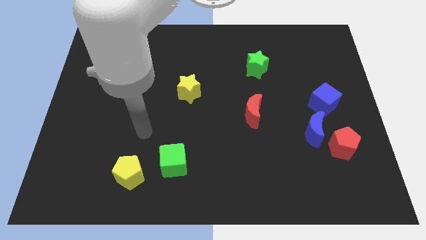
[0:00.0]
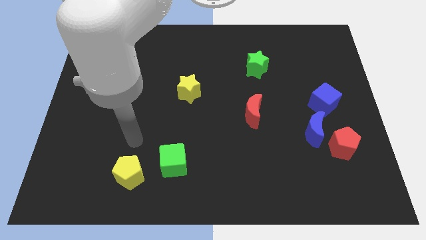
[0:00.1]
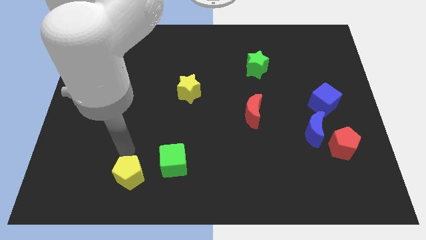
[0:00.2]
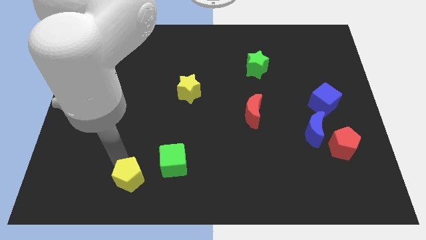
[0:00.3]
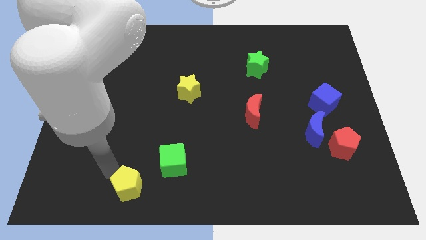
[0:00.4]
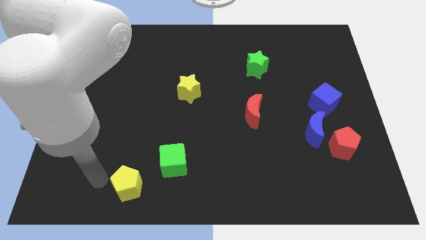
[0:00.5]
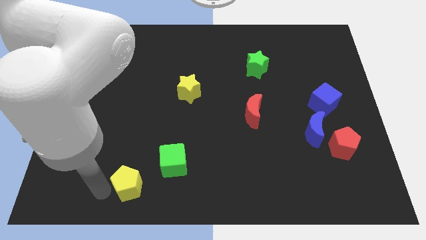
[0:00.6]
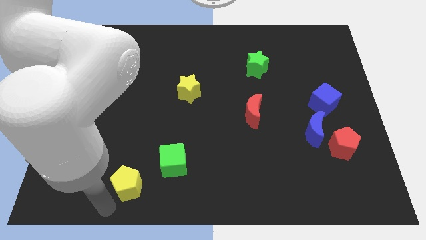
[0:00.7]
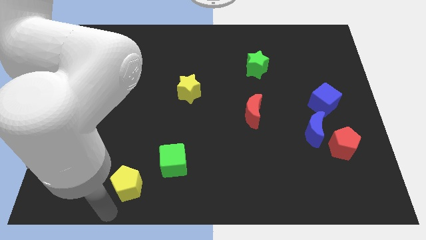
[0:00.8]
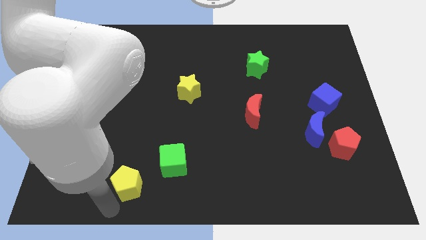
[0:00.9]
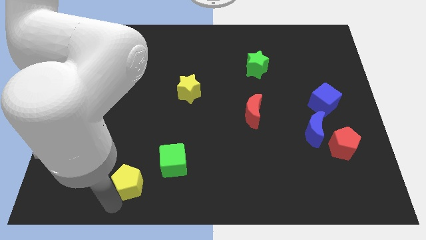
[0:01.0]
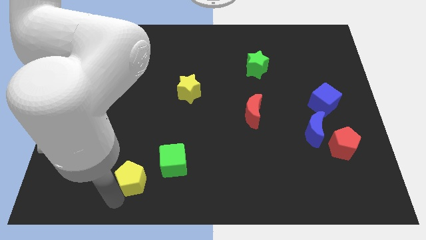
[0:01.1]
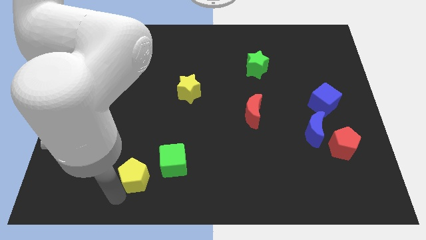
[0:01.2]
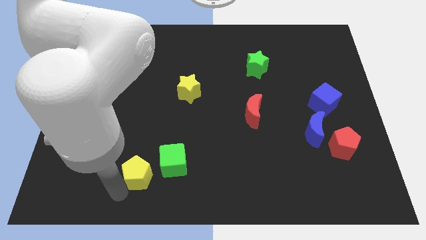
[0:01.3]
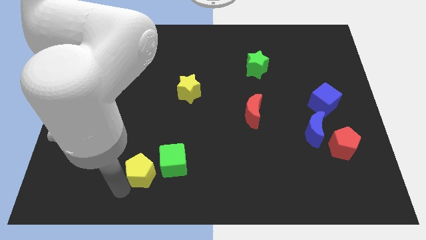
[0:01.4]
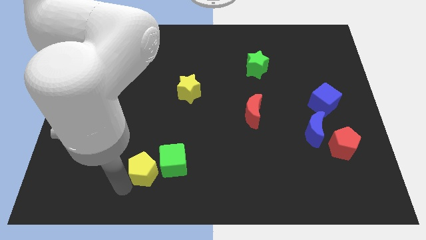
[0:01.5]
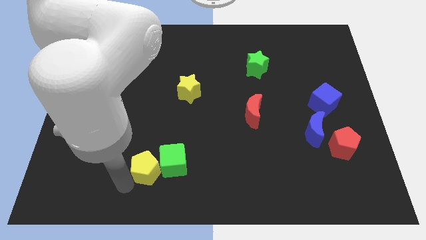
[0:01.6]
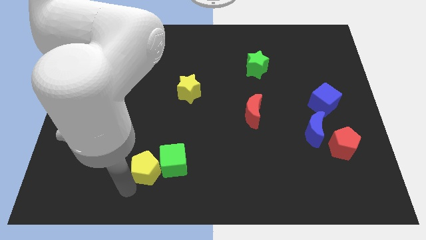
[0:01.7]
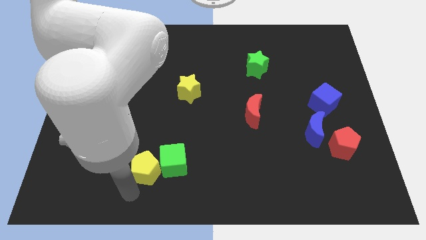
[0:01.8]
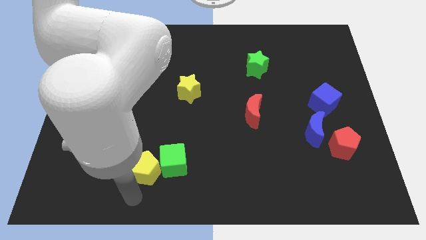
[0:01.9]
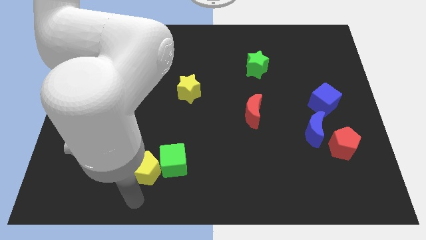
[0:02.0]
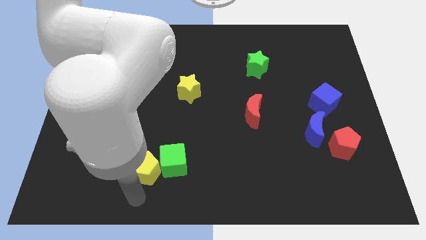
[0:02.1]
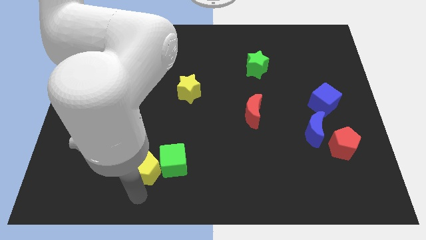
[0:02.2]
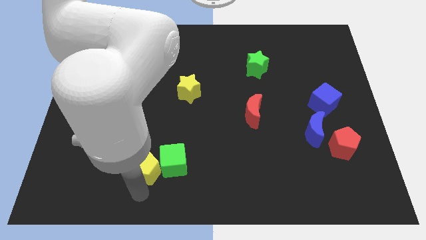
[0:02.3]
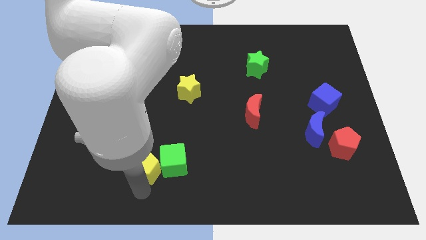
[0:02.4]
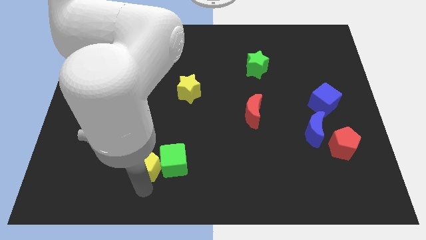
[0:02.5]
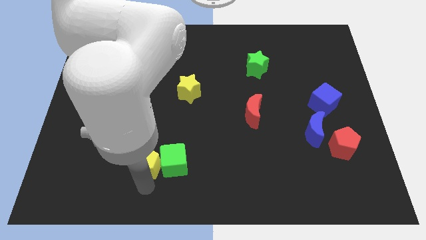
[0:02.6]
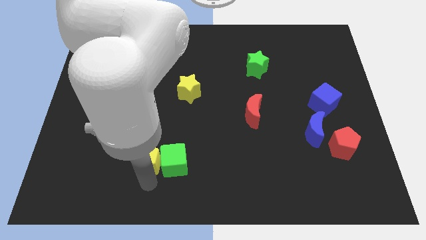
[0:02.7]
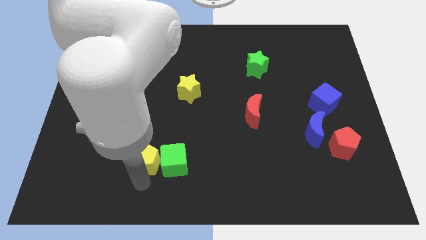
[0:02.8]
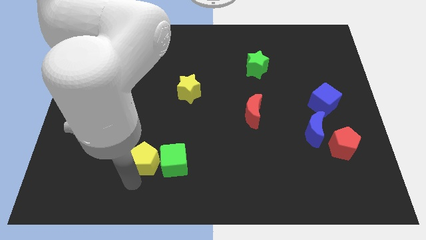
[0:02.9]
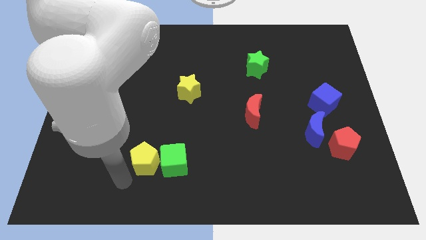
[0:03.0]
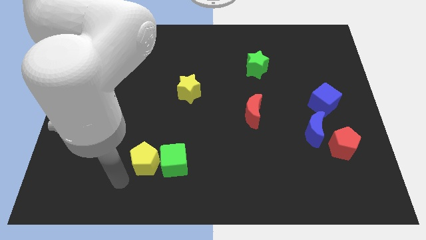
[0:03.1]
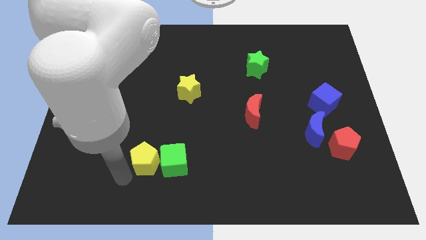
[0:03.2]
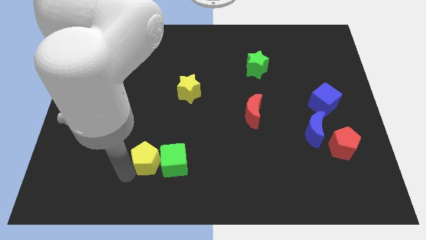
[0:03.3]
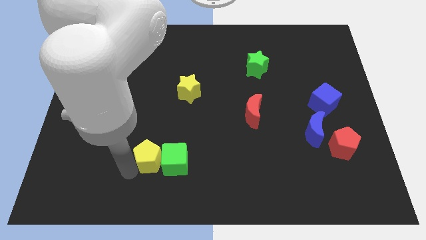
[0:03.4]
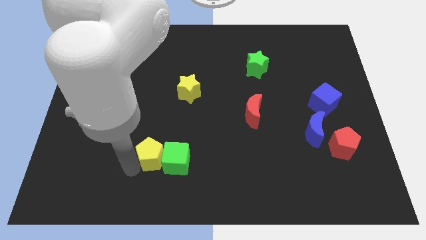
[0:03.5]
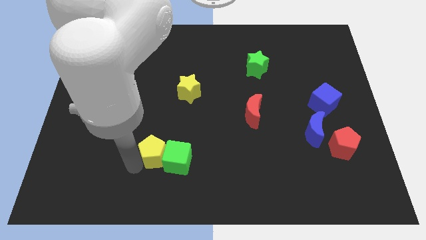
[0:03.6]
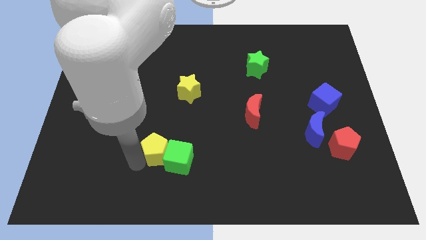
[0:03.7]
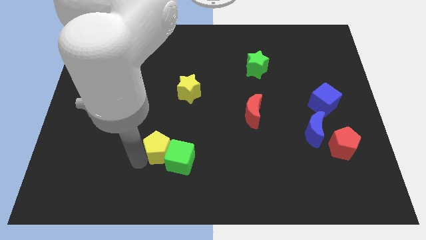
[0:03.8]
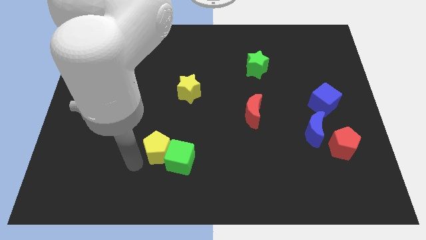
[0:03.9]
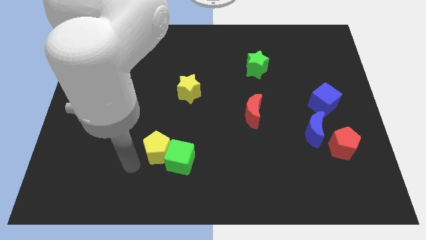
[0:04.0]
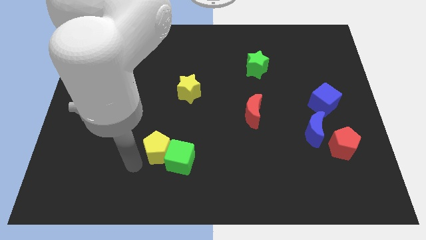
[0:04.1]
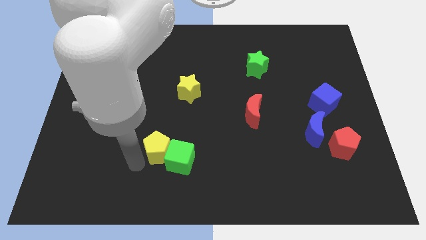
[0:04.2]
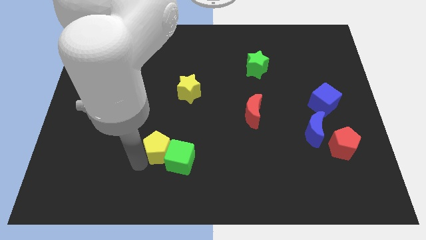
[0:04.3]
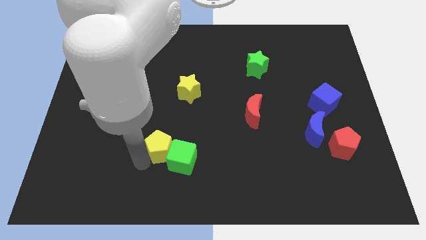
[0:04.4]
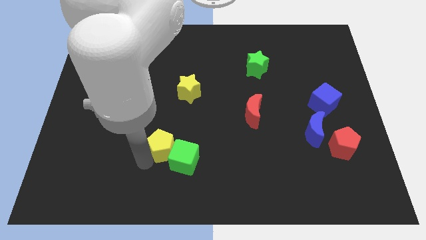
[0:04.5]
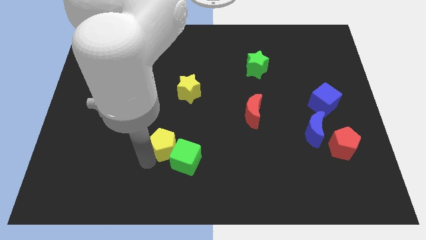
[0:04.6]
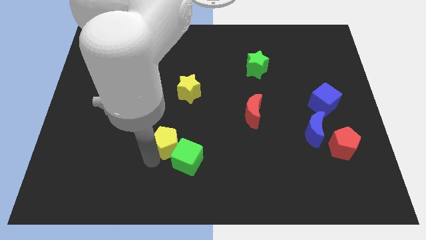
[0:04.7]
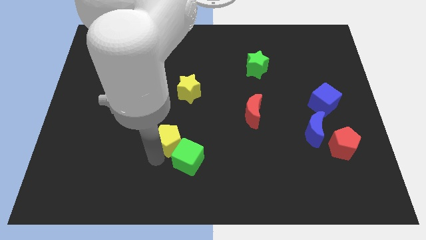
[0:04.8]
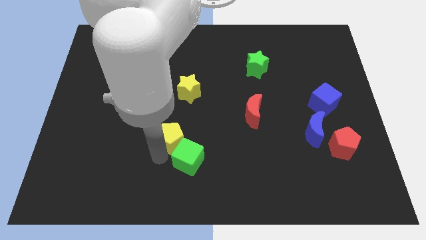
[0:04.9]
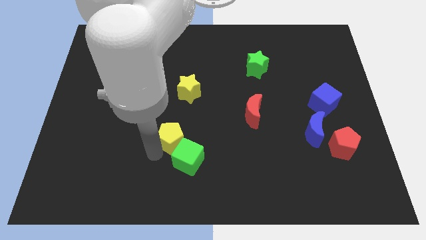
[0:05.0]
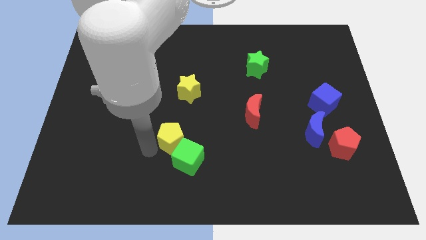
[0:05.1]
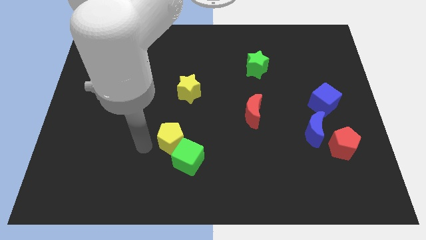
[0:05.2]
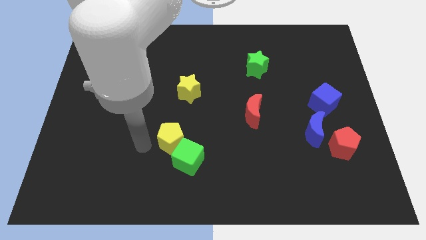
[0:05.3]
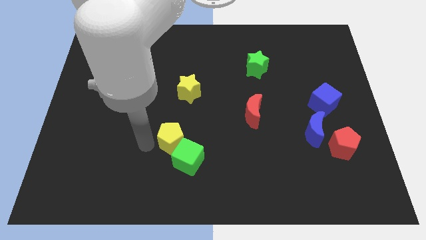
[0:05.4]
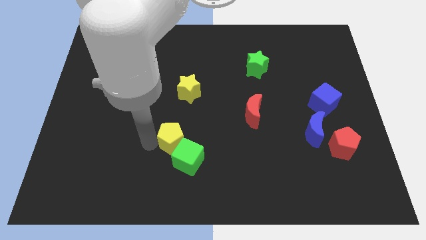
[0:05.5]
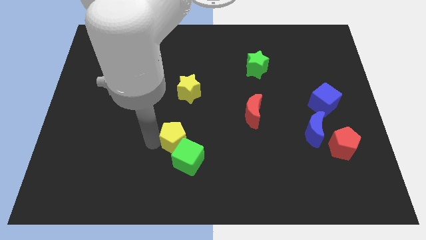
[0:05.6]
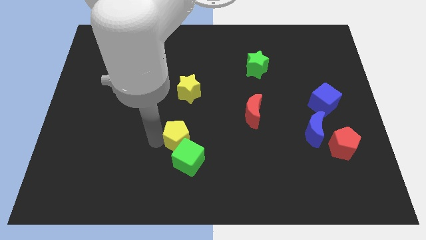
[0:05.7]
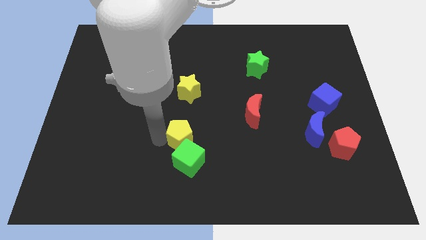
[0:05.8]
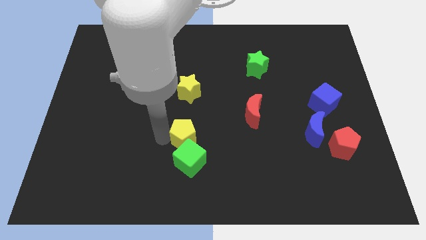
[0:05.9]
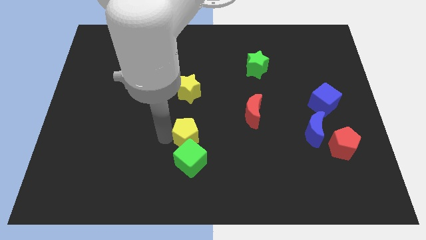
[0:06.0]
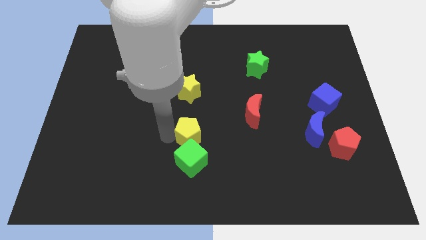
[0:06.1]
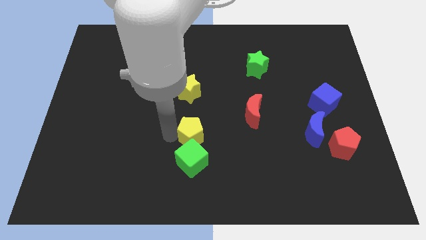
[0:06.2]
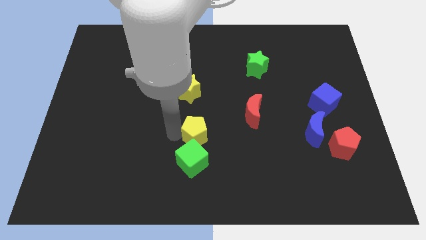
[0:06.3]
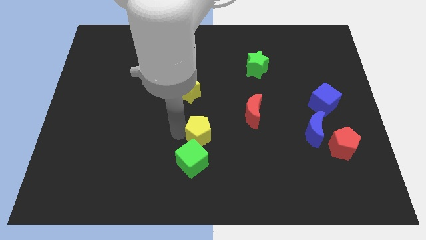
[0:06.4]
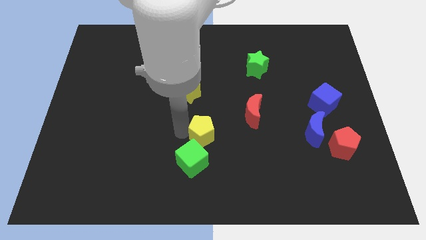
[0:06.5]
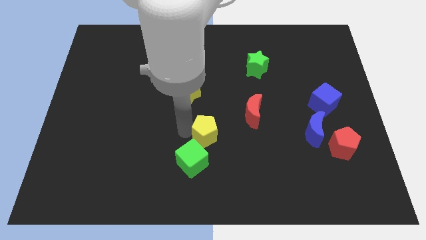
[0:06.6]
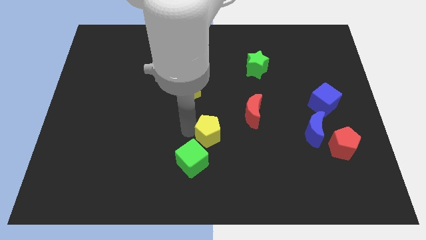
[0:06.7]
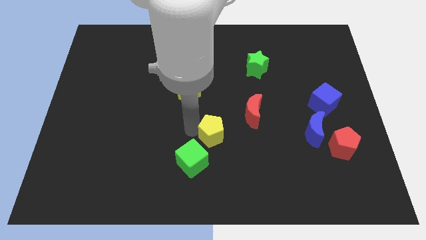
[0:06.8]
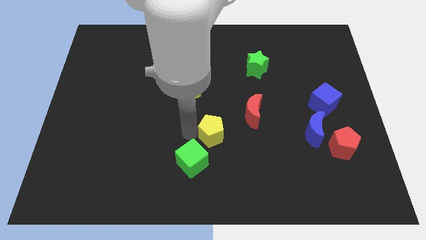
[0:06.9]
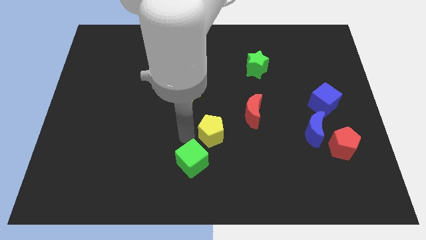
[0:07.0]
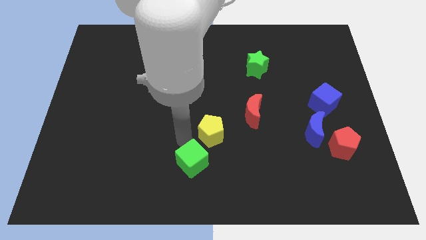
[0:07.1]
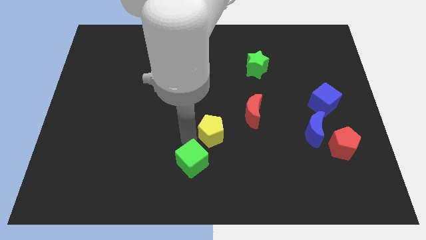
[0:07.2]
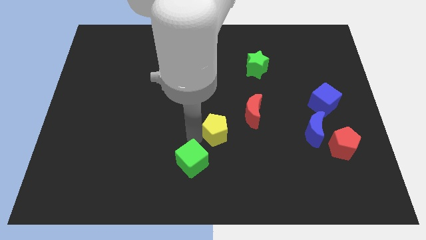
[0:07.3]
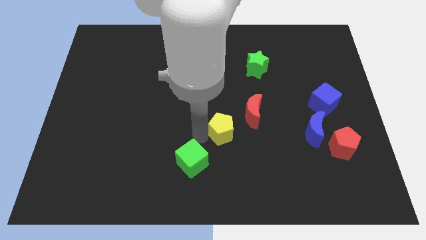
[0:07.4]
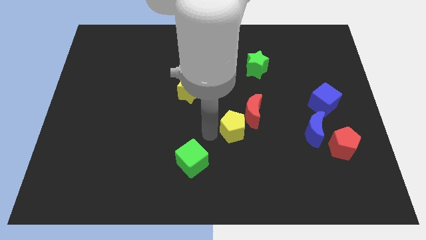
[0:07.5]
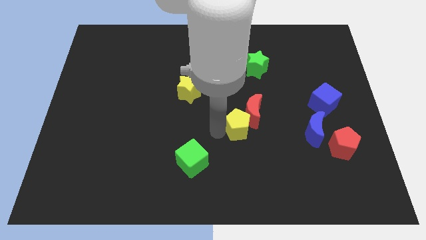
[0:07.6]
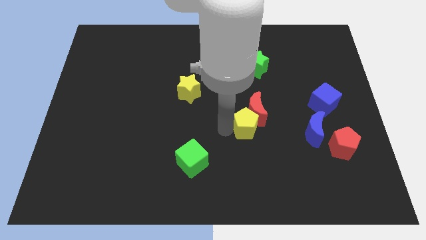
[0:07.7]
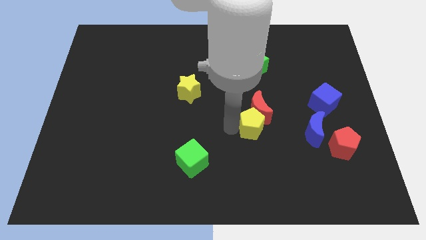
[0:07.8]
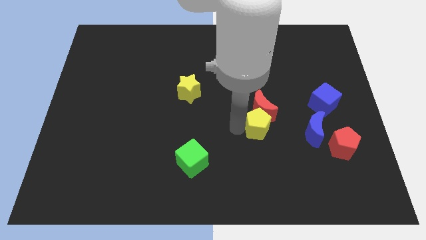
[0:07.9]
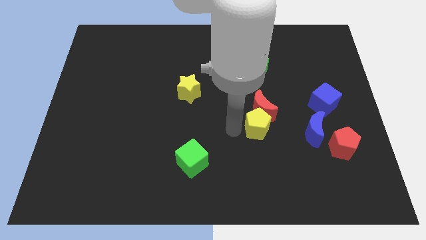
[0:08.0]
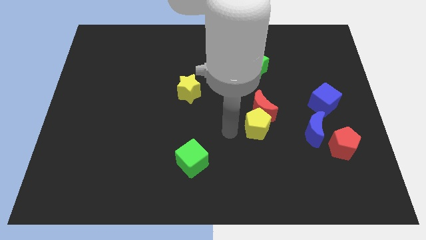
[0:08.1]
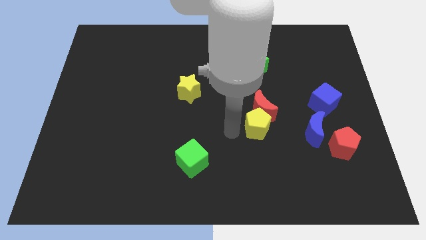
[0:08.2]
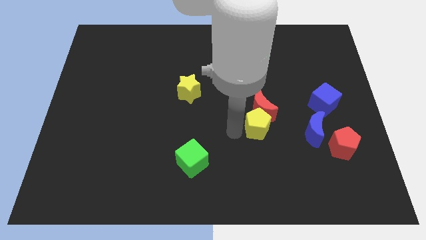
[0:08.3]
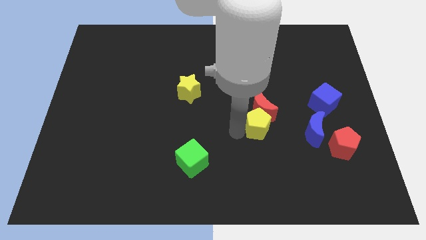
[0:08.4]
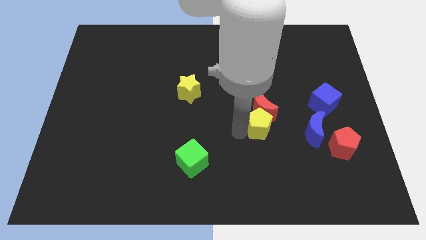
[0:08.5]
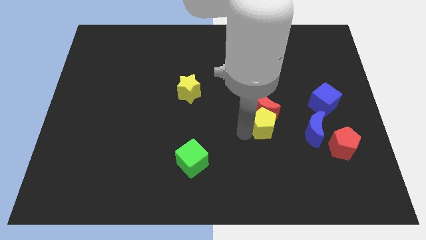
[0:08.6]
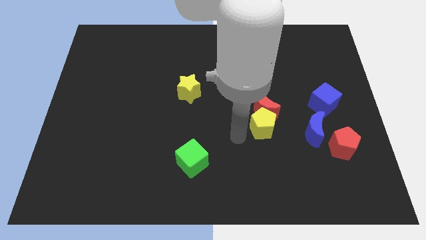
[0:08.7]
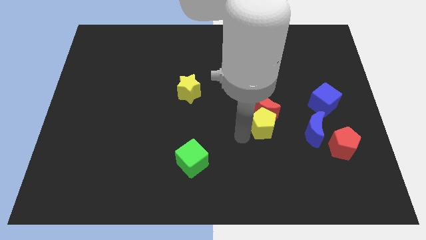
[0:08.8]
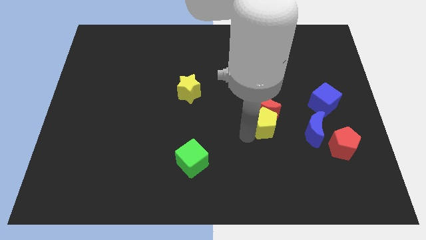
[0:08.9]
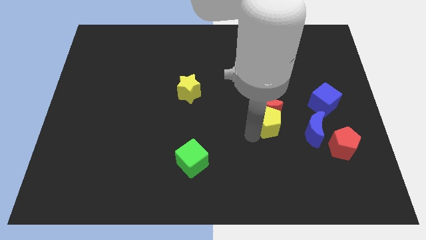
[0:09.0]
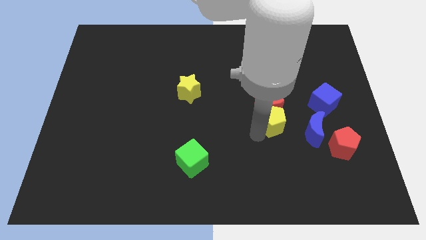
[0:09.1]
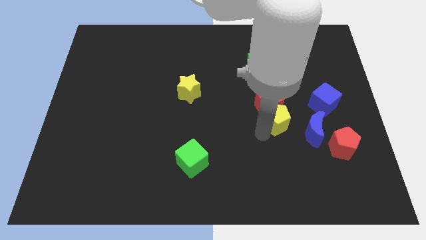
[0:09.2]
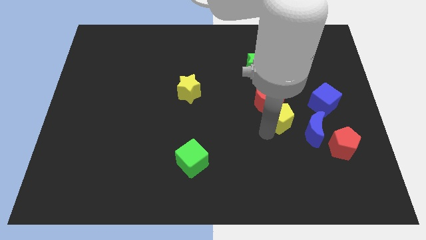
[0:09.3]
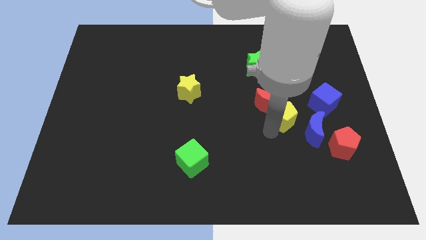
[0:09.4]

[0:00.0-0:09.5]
put the yellow pentagon to the right of the red moon
